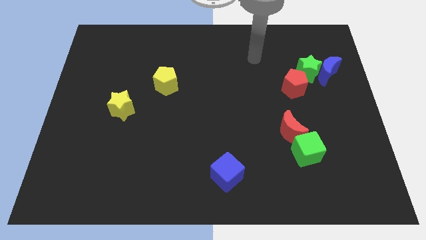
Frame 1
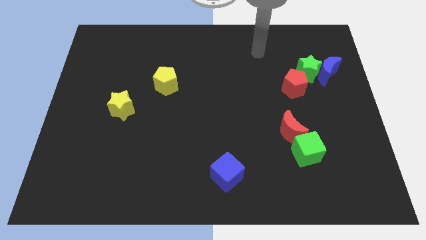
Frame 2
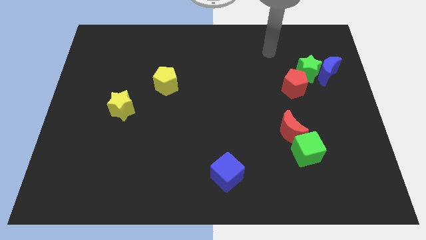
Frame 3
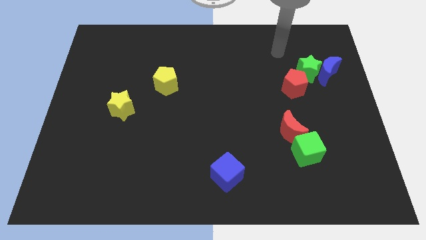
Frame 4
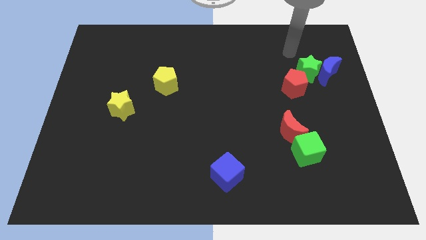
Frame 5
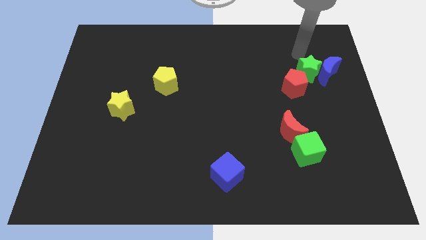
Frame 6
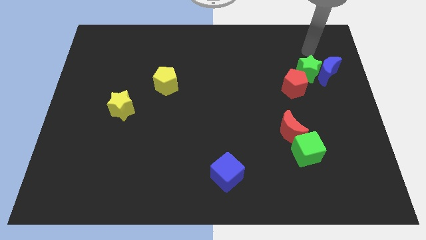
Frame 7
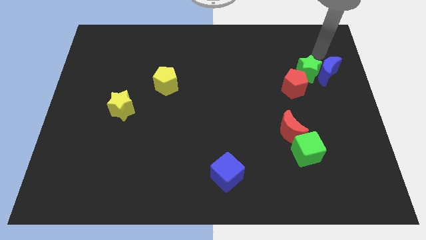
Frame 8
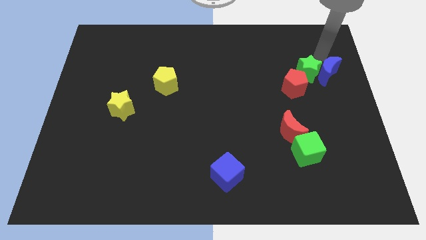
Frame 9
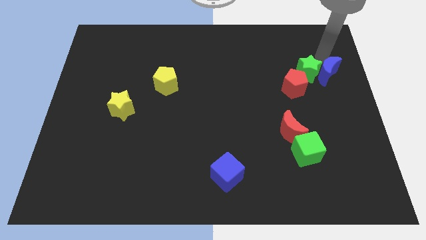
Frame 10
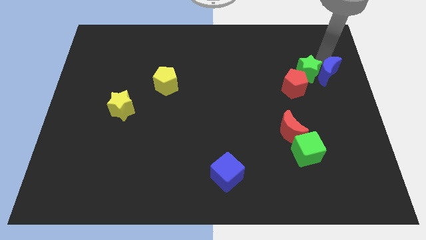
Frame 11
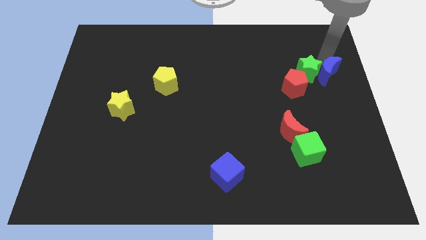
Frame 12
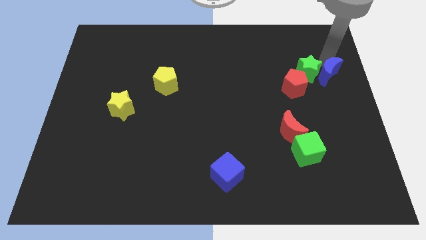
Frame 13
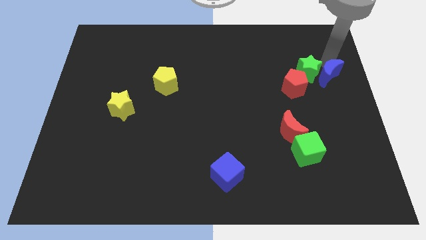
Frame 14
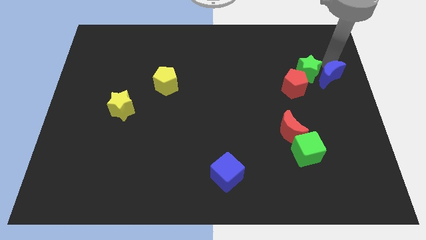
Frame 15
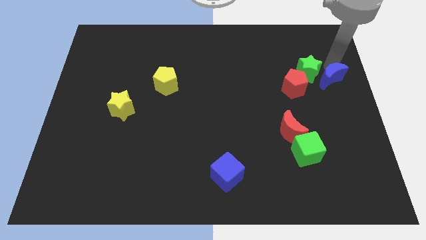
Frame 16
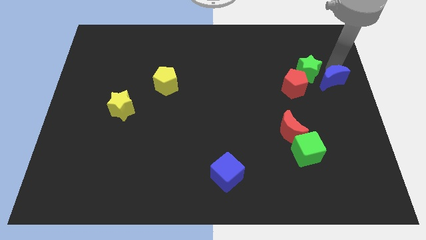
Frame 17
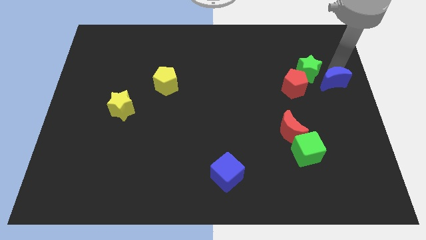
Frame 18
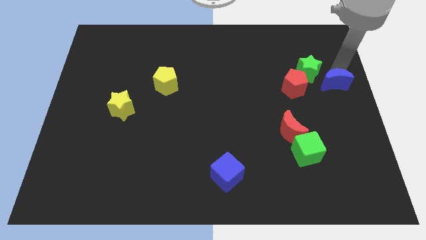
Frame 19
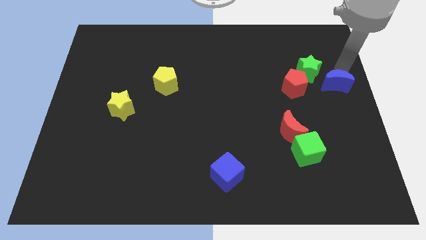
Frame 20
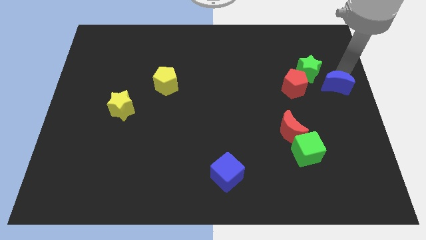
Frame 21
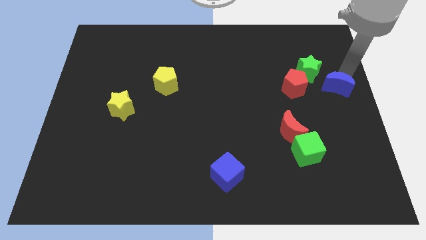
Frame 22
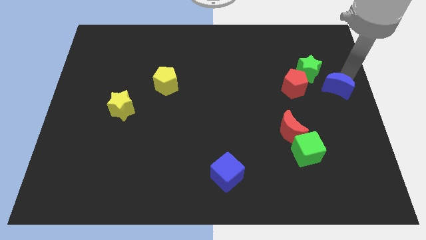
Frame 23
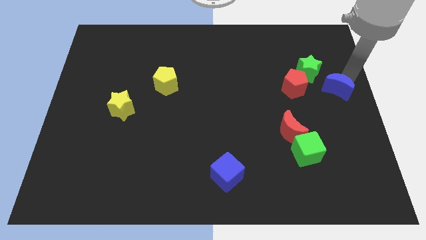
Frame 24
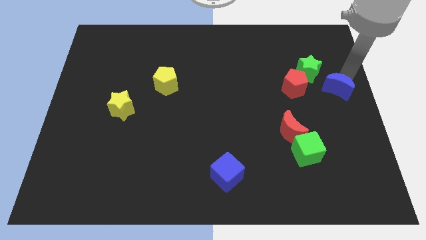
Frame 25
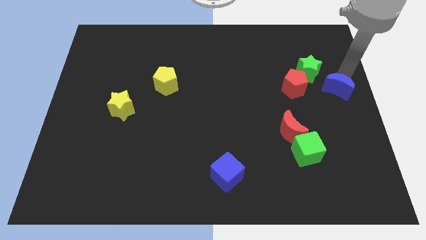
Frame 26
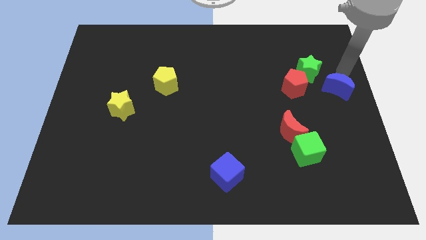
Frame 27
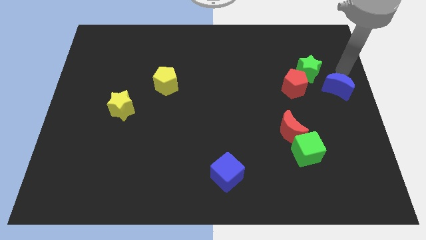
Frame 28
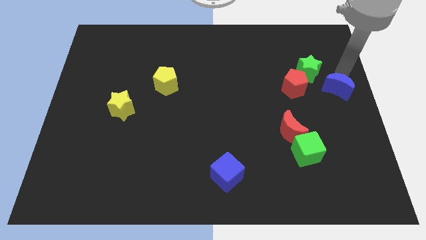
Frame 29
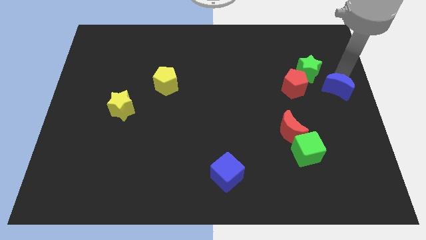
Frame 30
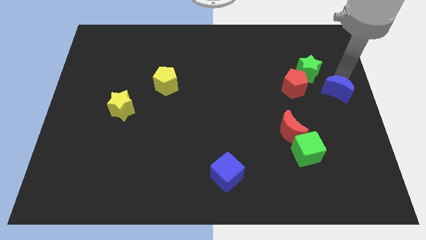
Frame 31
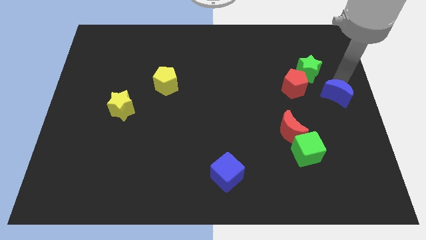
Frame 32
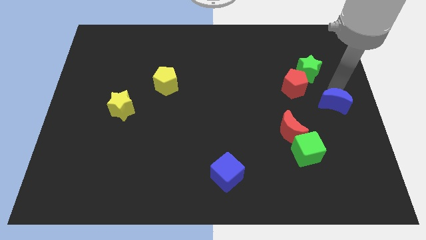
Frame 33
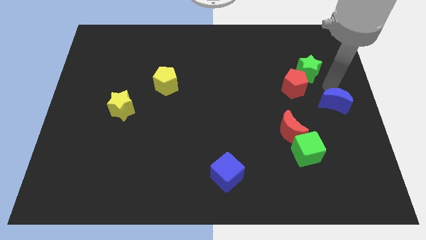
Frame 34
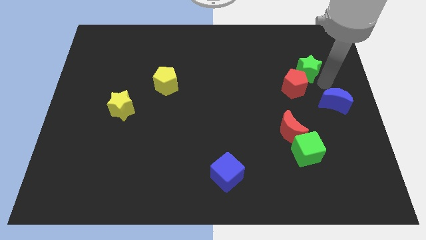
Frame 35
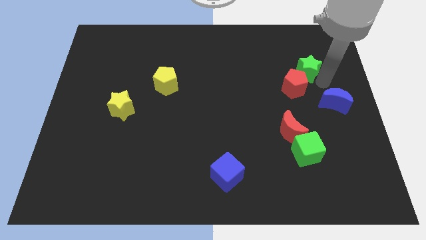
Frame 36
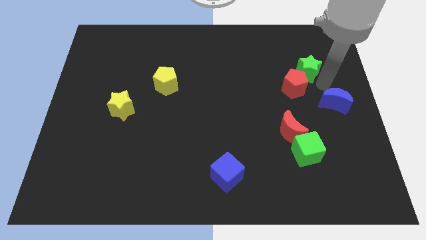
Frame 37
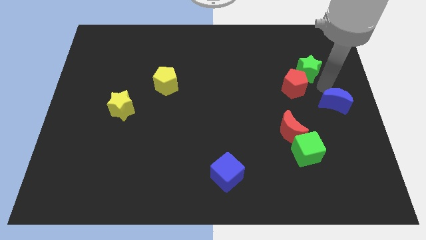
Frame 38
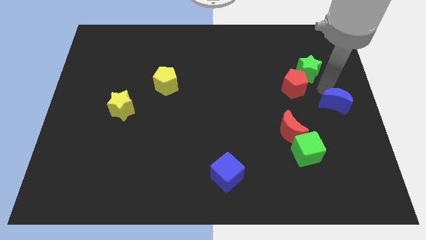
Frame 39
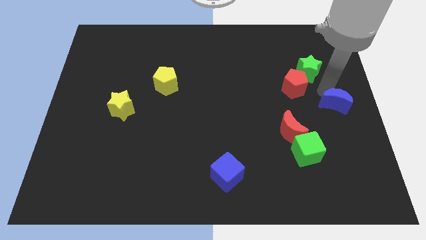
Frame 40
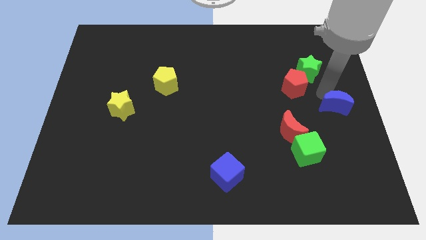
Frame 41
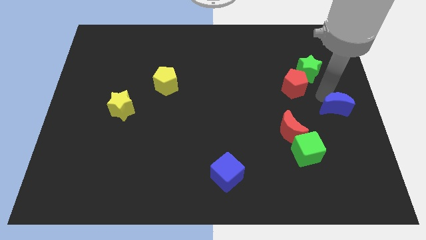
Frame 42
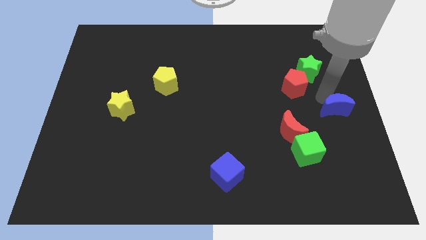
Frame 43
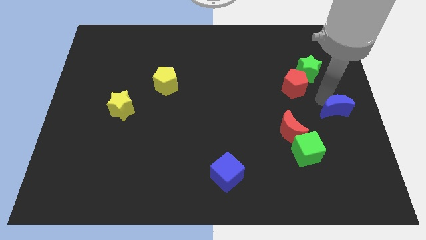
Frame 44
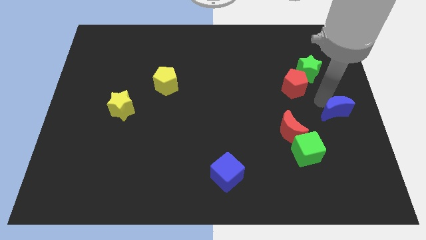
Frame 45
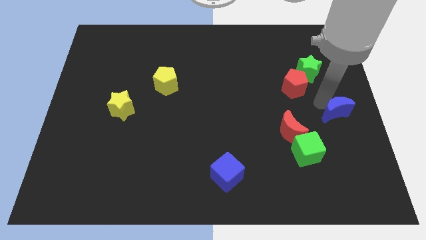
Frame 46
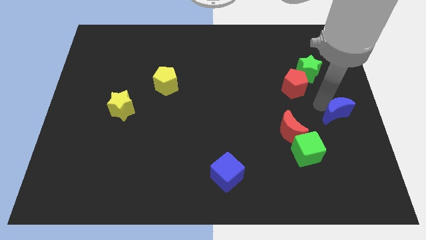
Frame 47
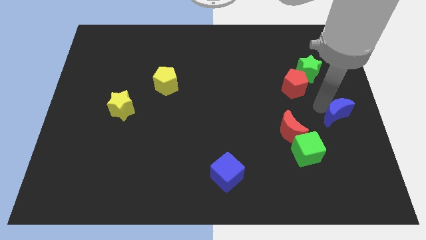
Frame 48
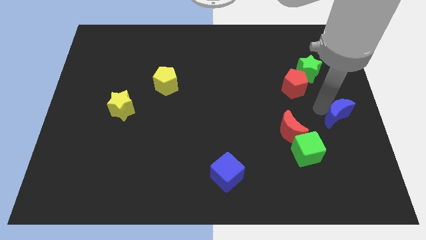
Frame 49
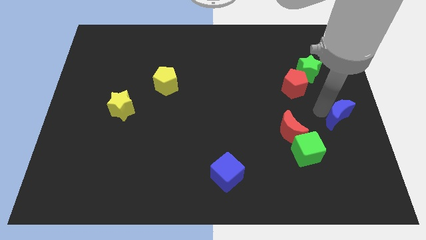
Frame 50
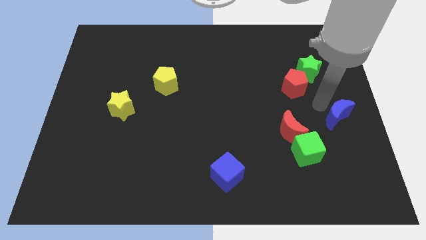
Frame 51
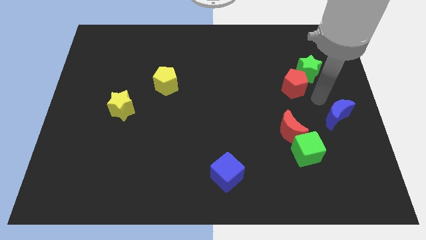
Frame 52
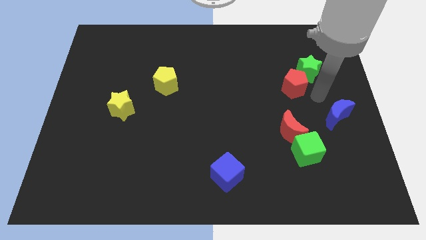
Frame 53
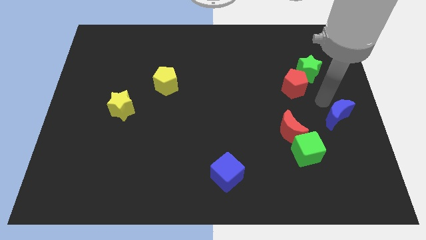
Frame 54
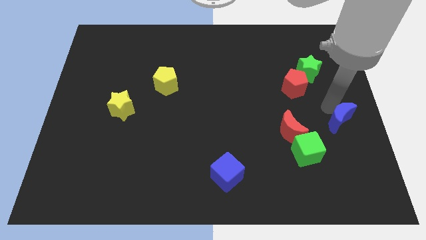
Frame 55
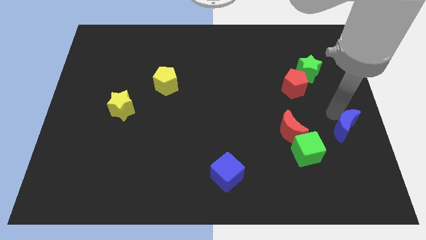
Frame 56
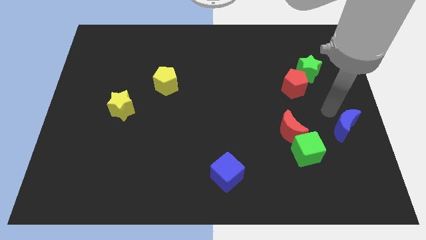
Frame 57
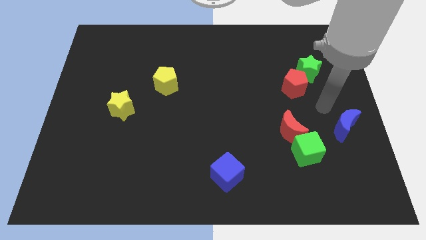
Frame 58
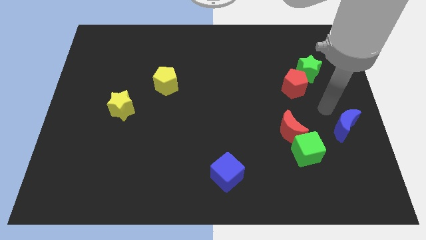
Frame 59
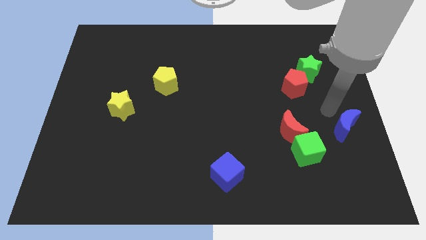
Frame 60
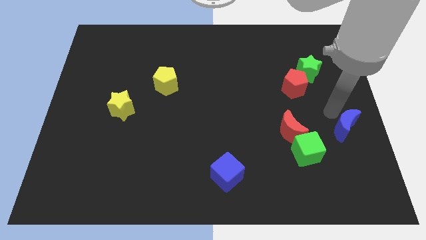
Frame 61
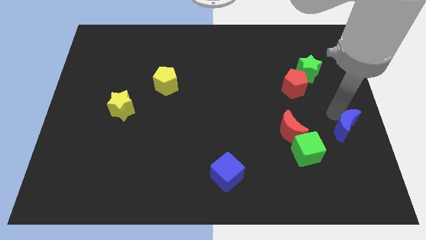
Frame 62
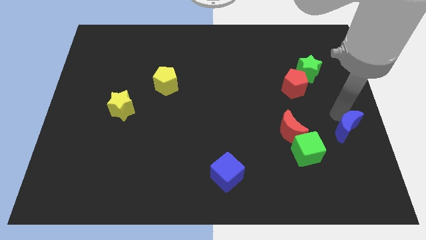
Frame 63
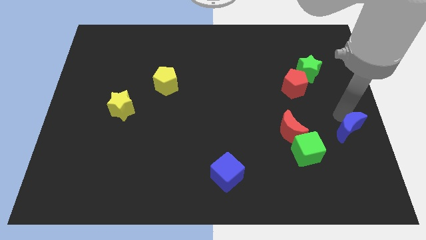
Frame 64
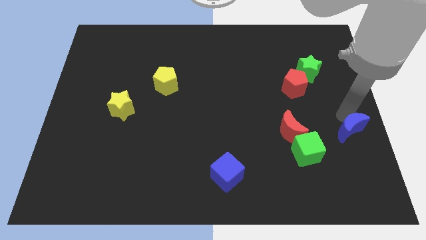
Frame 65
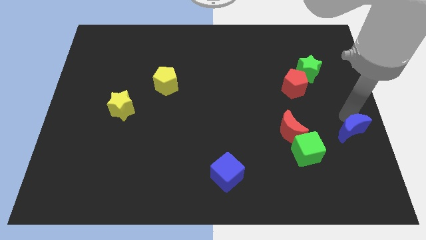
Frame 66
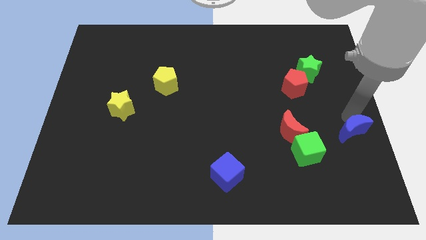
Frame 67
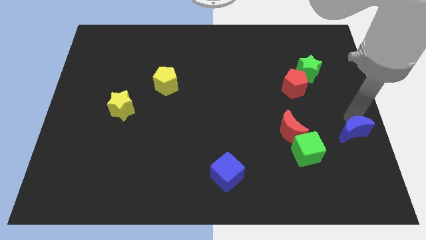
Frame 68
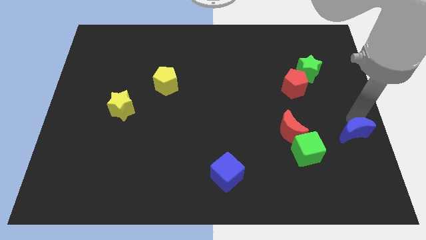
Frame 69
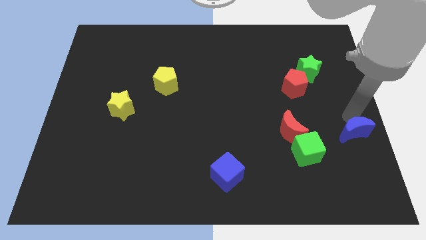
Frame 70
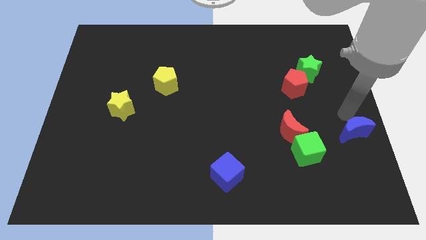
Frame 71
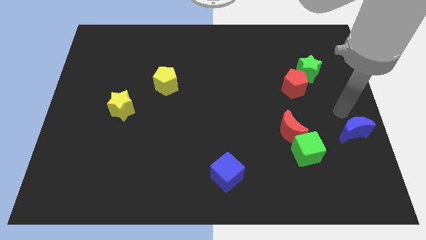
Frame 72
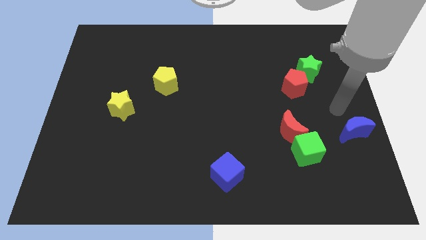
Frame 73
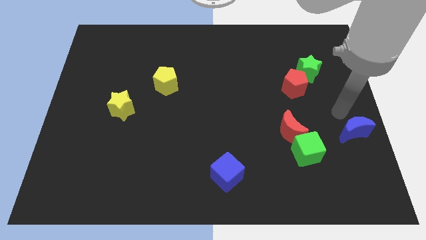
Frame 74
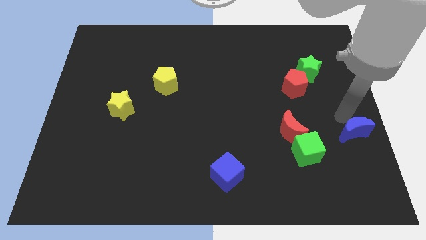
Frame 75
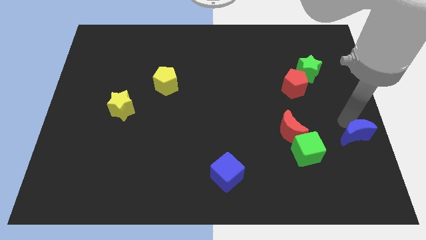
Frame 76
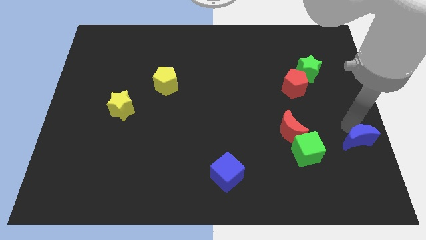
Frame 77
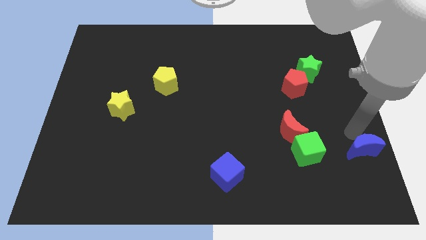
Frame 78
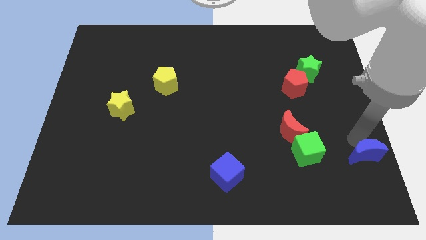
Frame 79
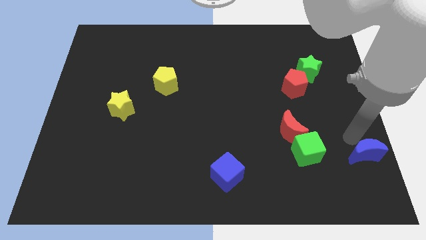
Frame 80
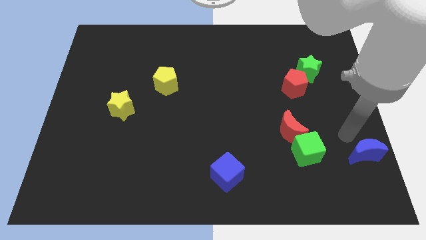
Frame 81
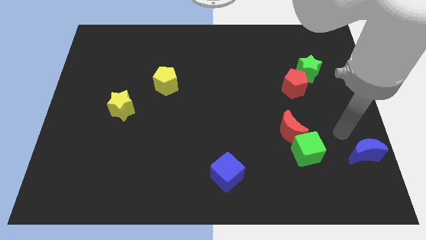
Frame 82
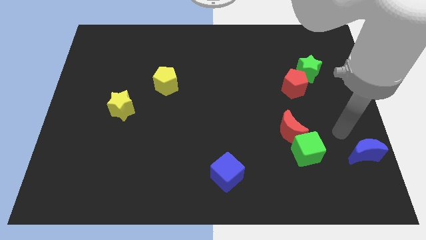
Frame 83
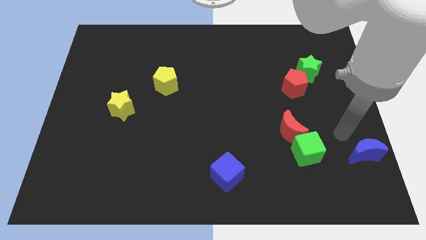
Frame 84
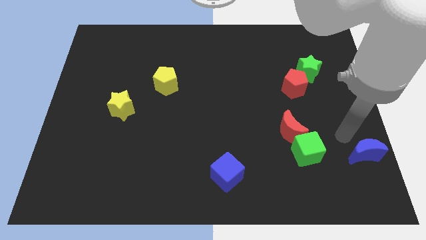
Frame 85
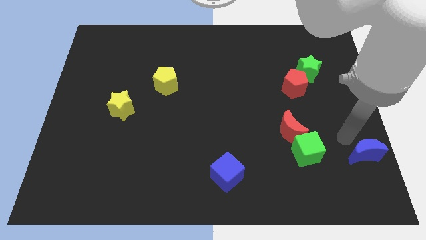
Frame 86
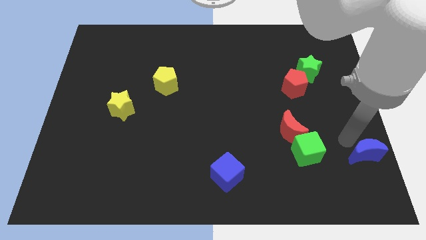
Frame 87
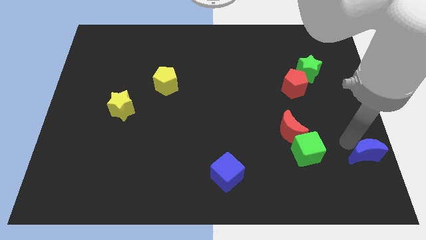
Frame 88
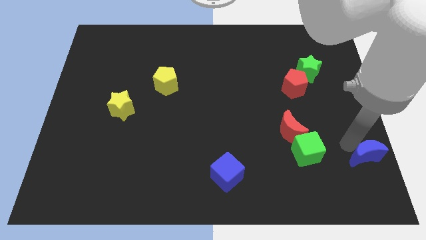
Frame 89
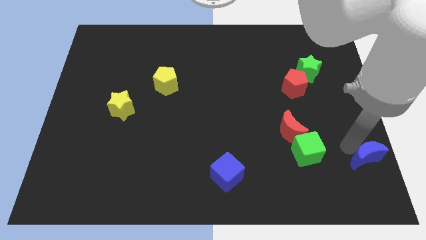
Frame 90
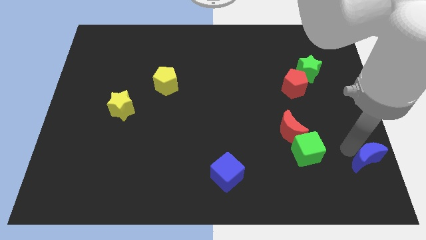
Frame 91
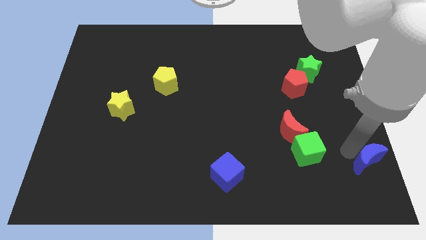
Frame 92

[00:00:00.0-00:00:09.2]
slide the blue moon to the bottom right of the board
